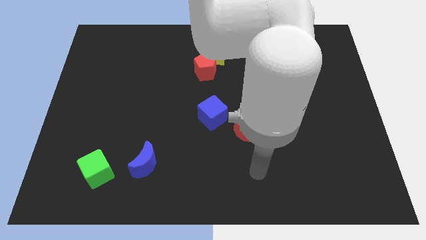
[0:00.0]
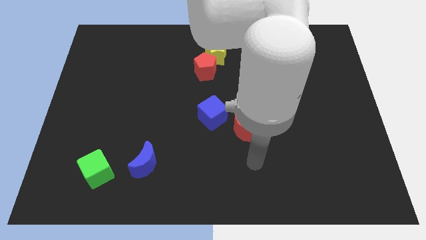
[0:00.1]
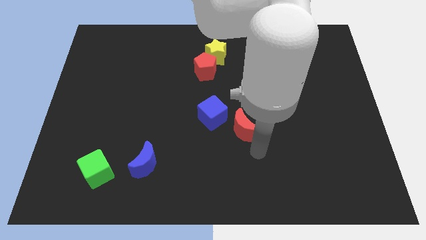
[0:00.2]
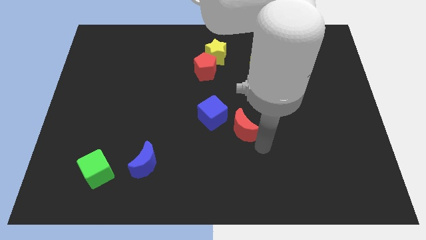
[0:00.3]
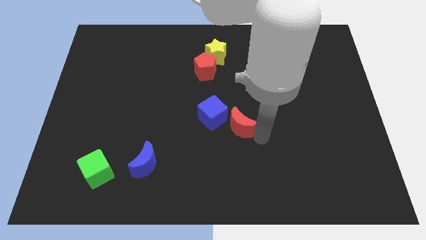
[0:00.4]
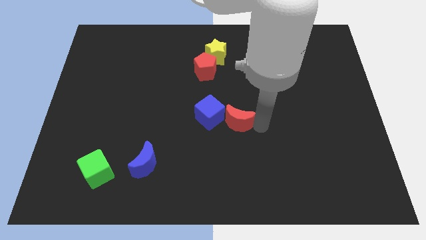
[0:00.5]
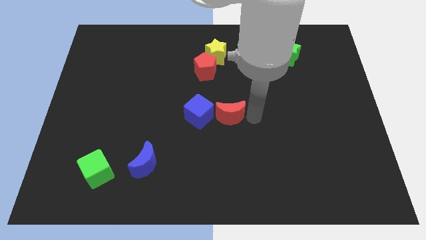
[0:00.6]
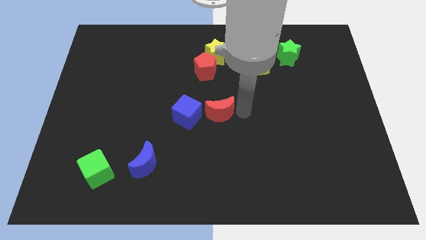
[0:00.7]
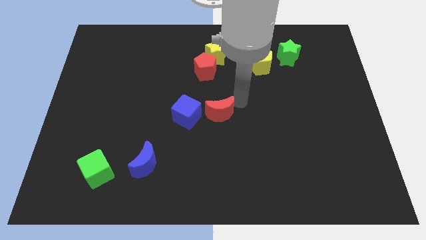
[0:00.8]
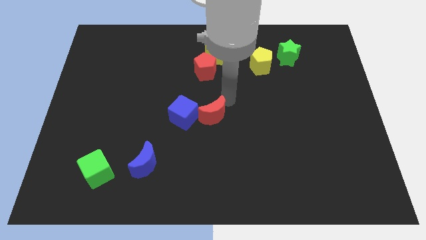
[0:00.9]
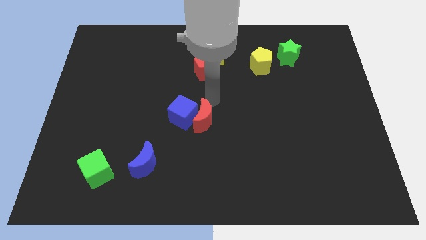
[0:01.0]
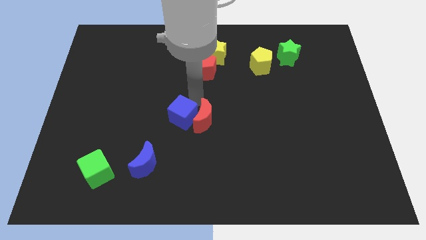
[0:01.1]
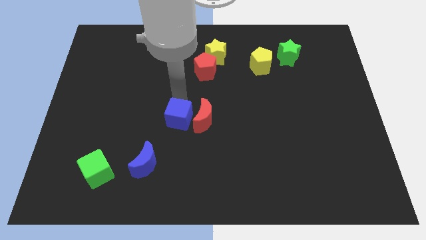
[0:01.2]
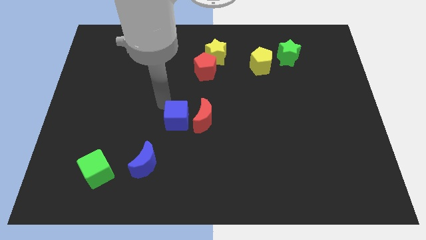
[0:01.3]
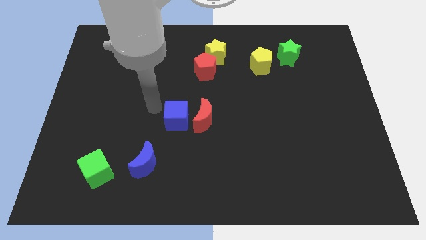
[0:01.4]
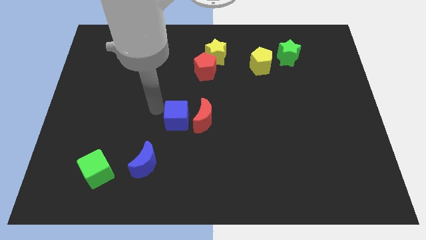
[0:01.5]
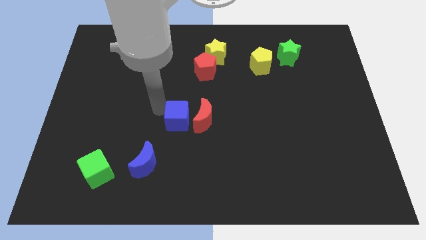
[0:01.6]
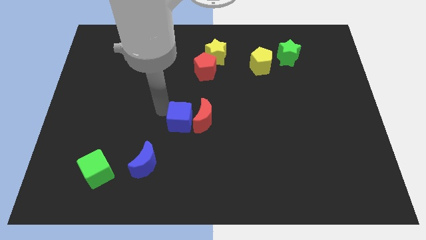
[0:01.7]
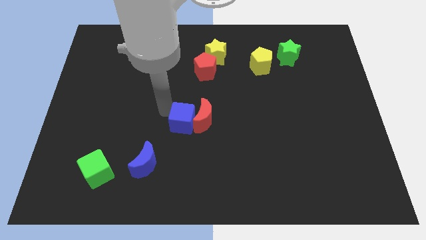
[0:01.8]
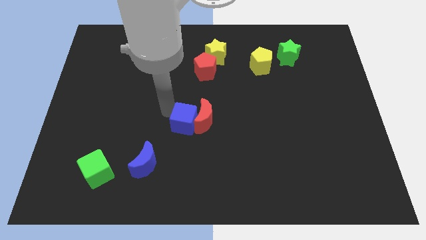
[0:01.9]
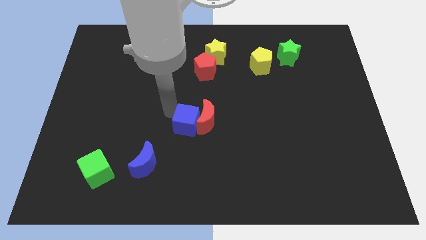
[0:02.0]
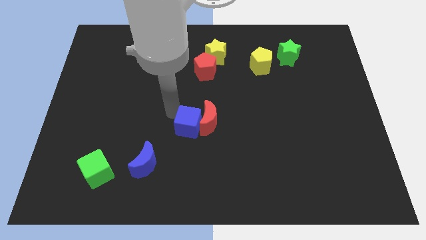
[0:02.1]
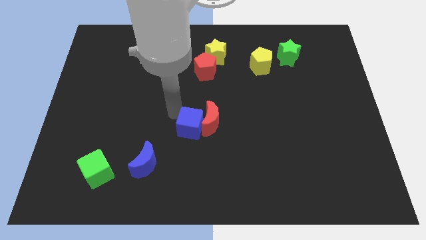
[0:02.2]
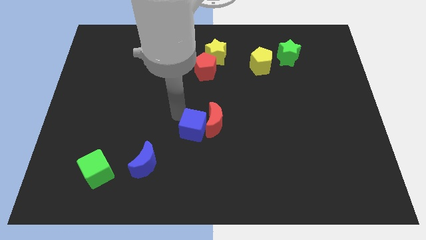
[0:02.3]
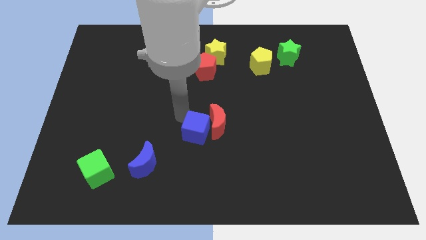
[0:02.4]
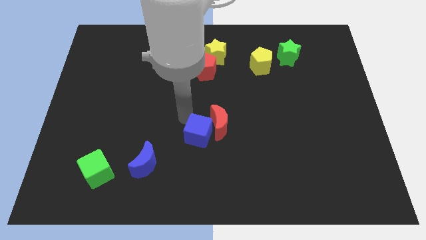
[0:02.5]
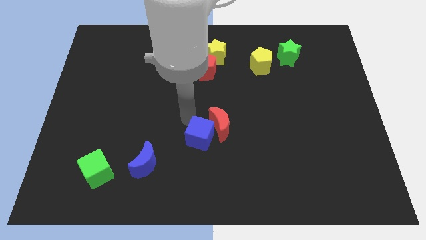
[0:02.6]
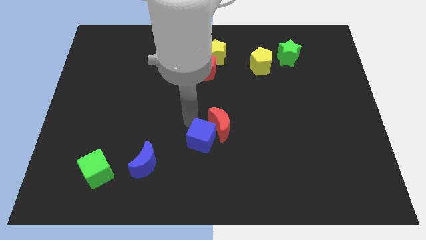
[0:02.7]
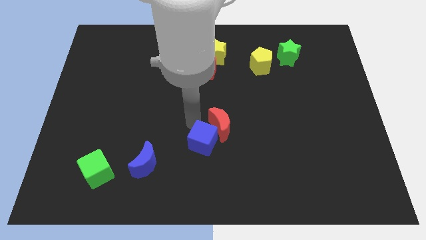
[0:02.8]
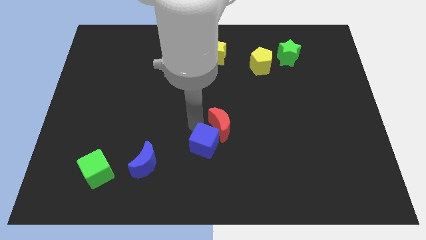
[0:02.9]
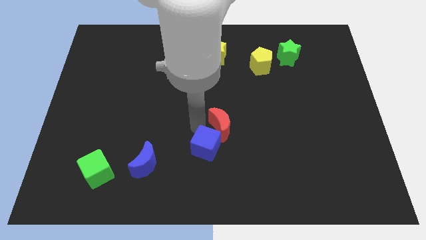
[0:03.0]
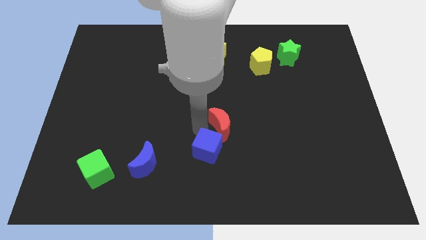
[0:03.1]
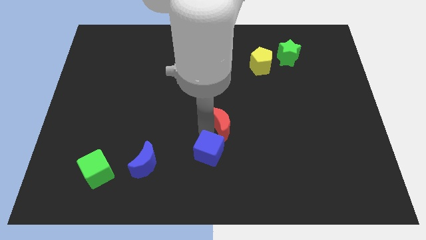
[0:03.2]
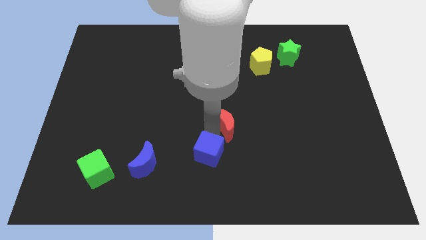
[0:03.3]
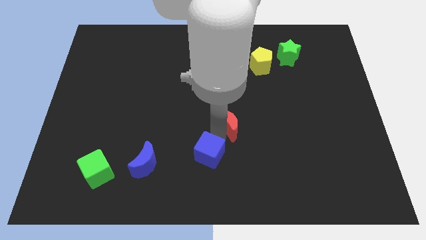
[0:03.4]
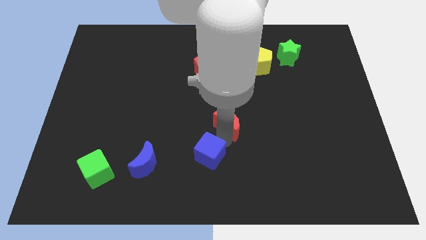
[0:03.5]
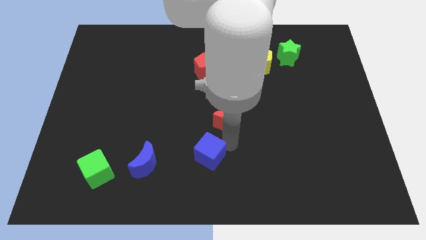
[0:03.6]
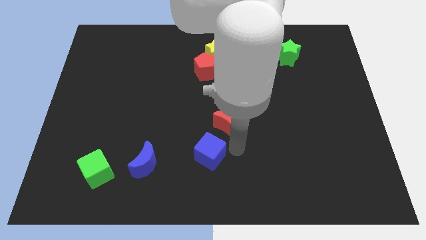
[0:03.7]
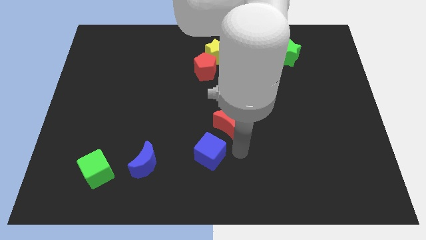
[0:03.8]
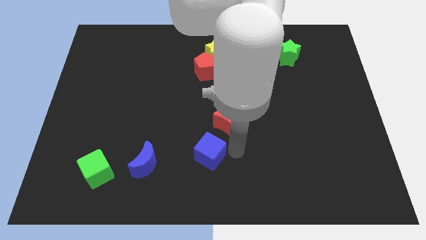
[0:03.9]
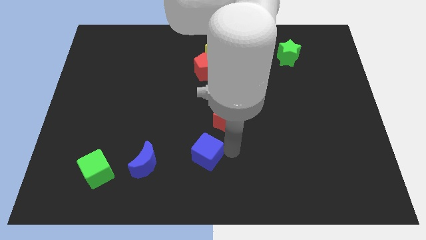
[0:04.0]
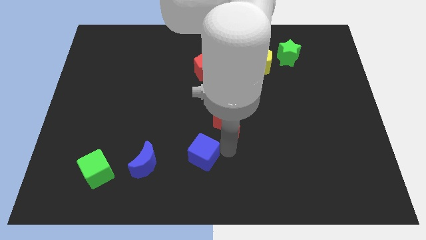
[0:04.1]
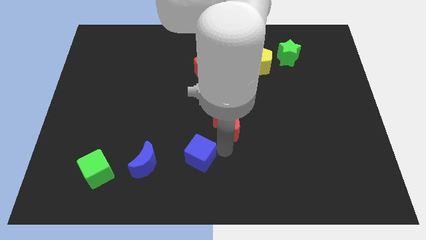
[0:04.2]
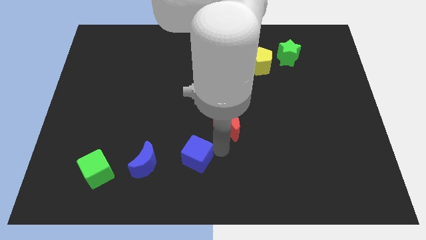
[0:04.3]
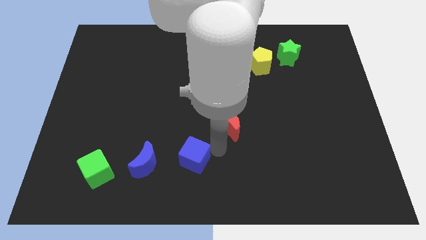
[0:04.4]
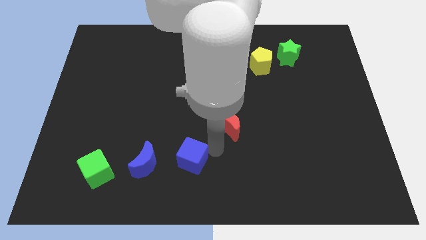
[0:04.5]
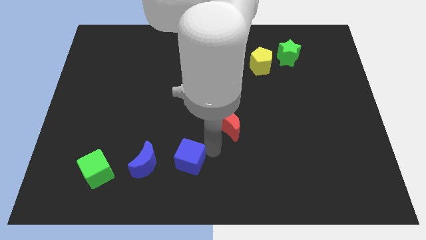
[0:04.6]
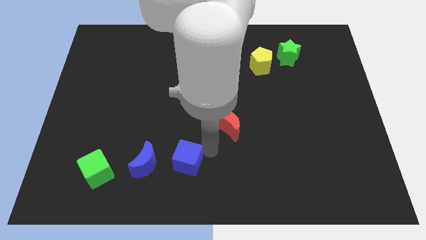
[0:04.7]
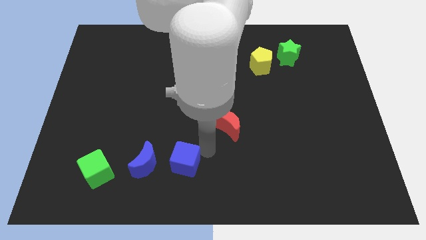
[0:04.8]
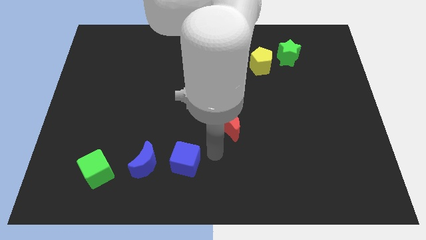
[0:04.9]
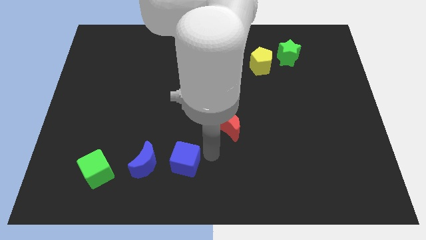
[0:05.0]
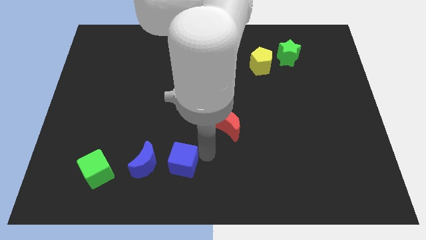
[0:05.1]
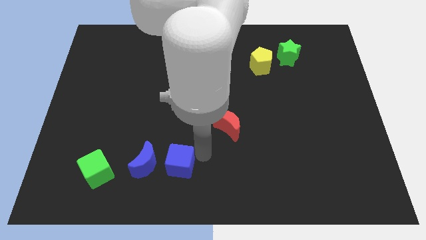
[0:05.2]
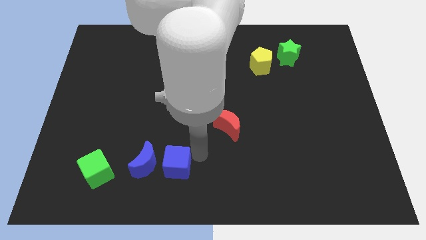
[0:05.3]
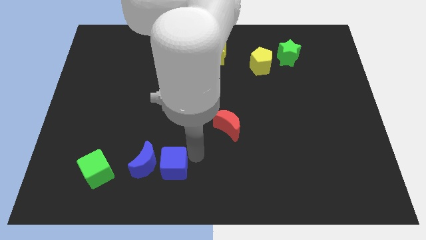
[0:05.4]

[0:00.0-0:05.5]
slide the blue cube to the right side of the green cube

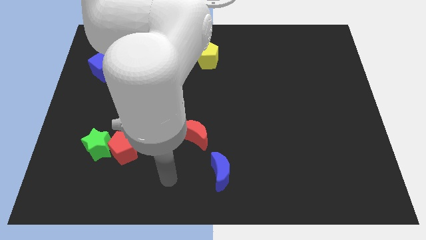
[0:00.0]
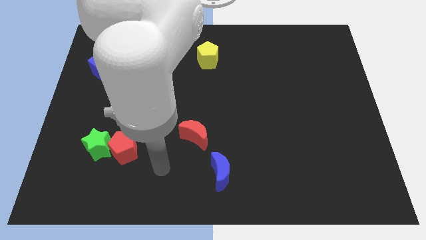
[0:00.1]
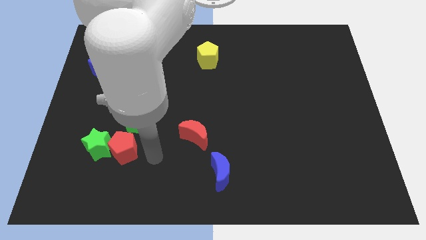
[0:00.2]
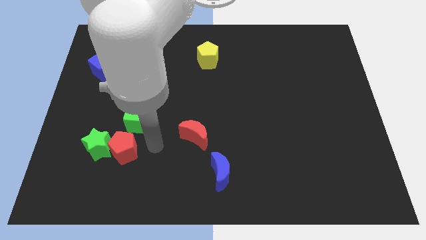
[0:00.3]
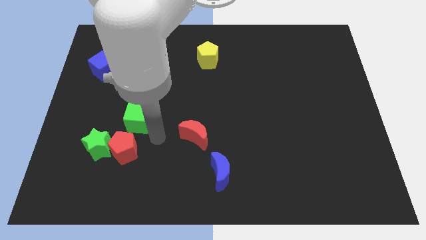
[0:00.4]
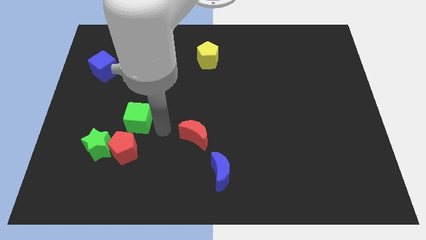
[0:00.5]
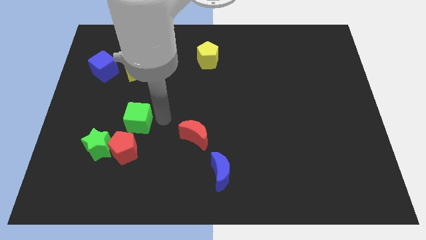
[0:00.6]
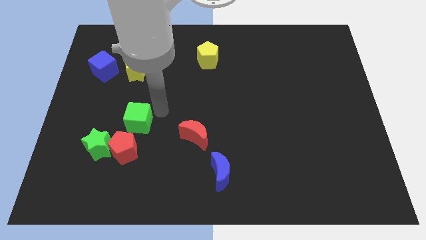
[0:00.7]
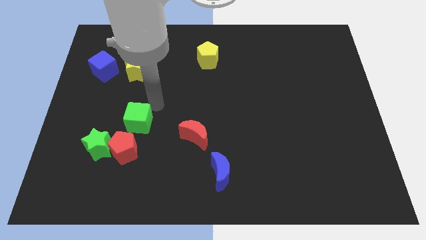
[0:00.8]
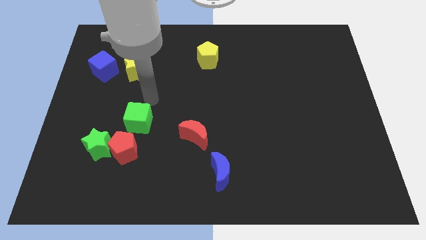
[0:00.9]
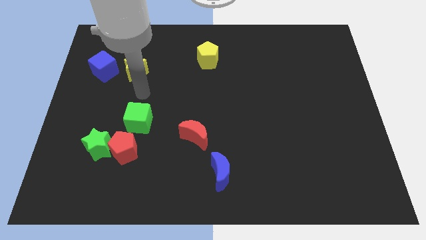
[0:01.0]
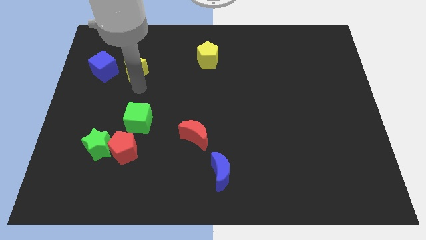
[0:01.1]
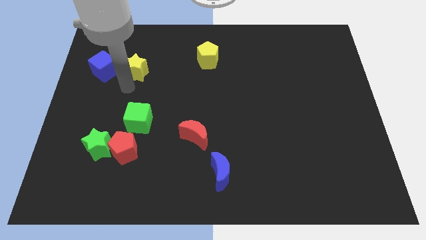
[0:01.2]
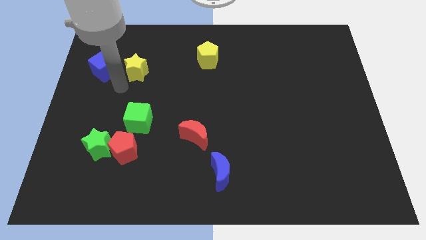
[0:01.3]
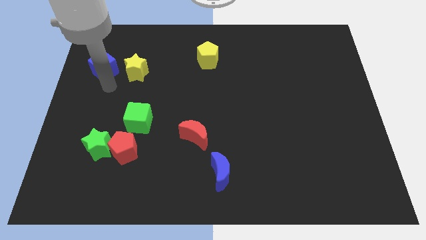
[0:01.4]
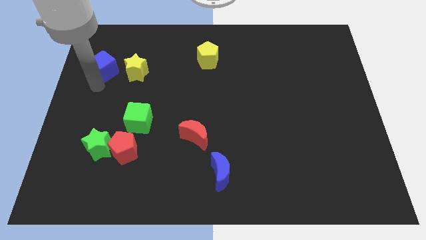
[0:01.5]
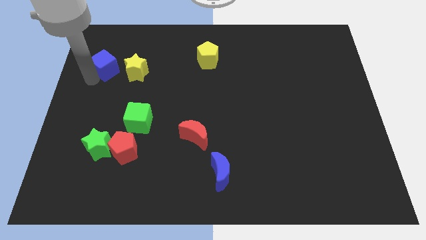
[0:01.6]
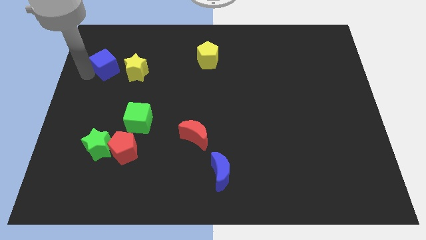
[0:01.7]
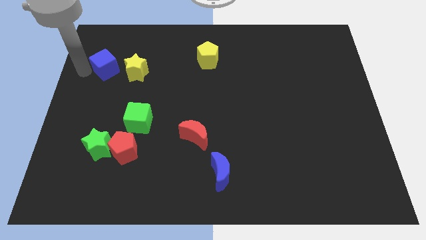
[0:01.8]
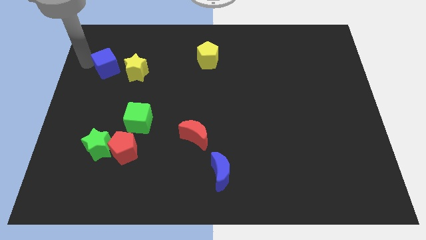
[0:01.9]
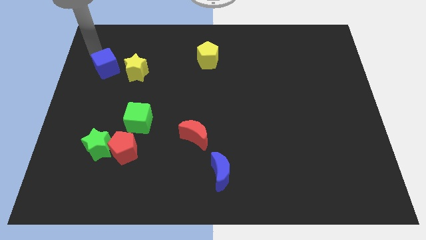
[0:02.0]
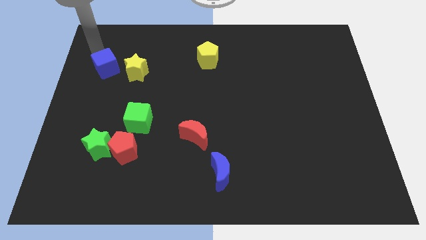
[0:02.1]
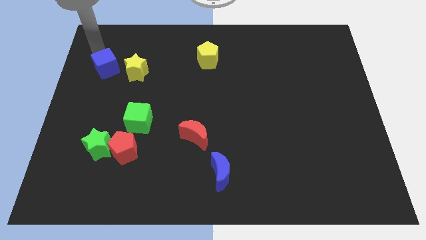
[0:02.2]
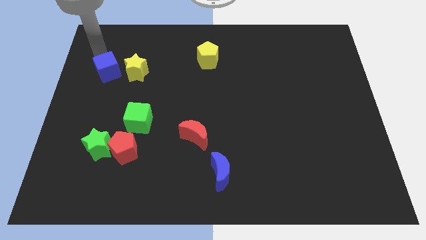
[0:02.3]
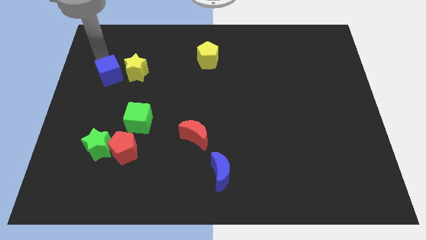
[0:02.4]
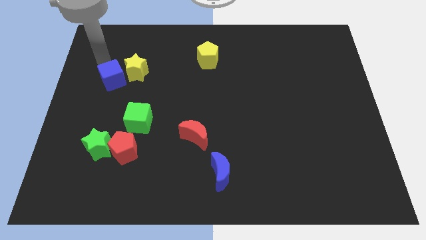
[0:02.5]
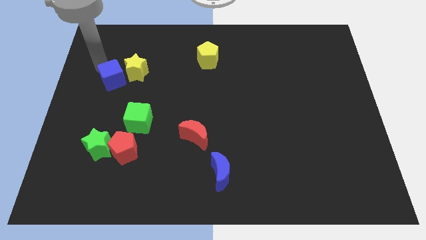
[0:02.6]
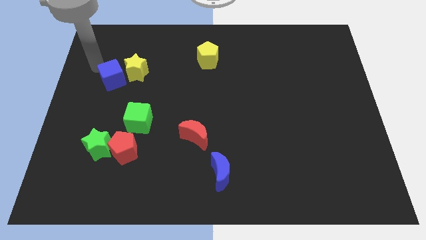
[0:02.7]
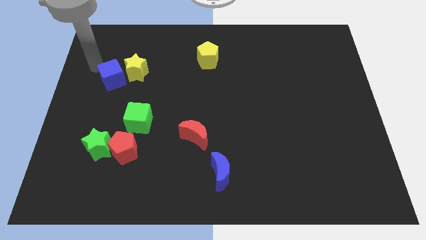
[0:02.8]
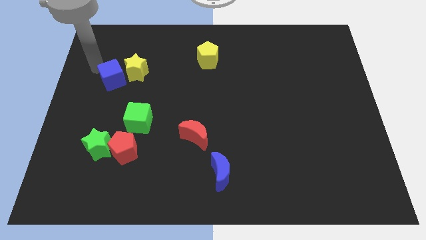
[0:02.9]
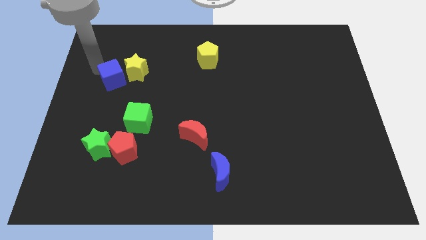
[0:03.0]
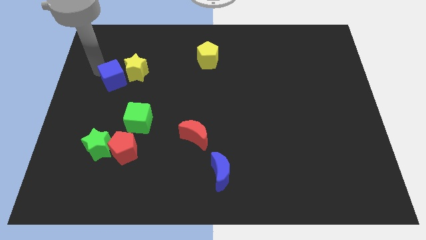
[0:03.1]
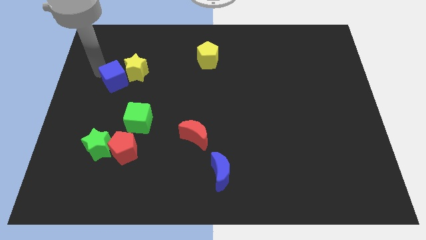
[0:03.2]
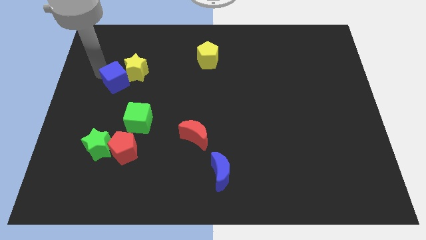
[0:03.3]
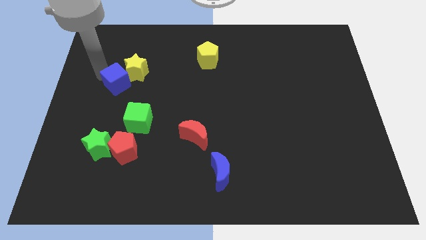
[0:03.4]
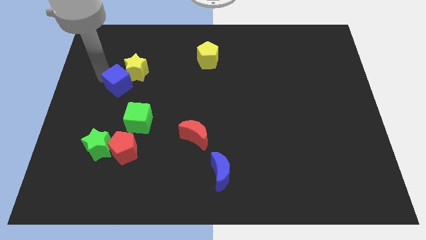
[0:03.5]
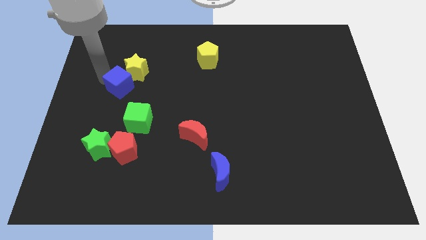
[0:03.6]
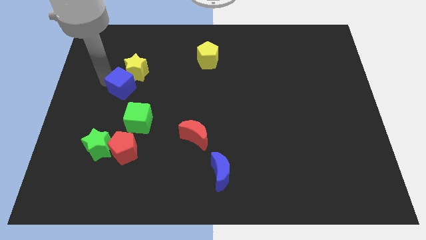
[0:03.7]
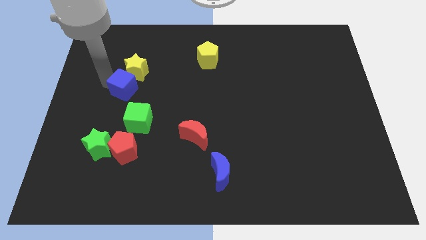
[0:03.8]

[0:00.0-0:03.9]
put the blue cube to the top side of the green cube
